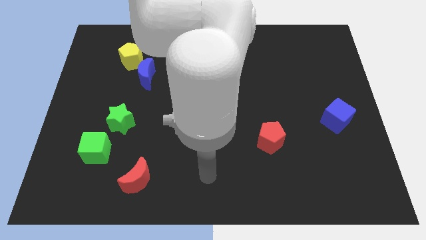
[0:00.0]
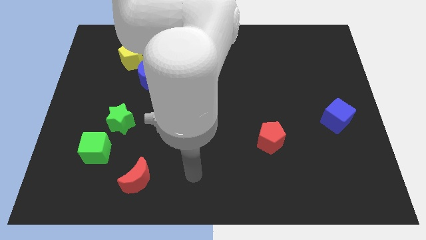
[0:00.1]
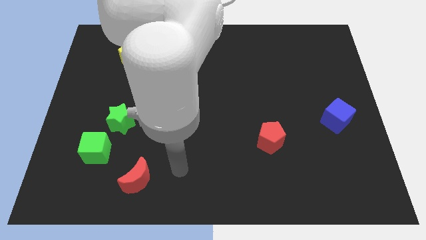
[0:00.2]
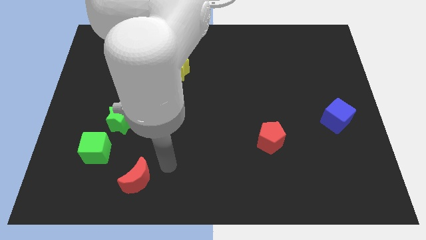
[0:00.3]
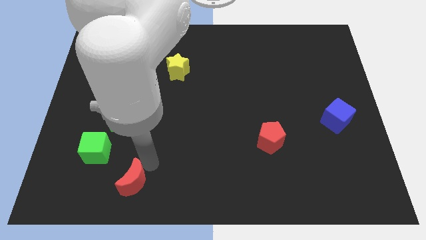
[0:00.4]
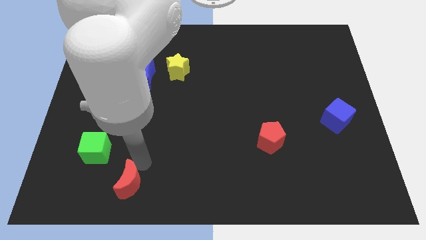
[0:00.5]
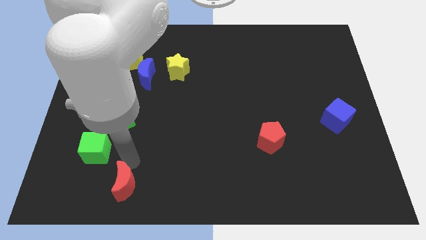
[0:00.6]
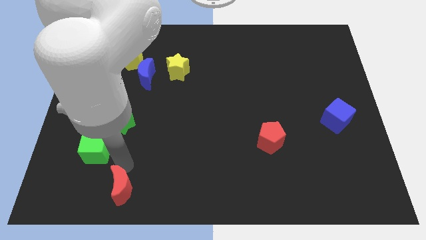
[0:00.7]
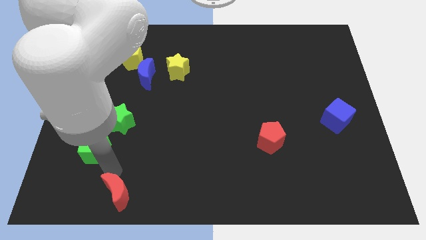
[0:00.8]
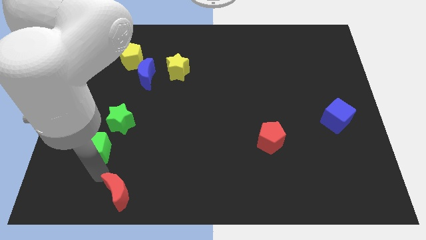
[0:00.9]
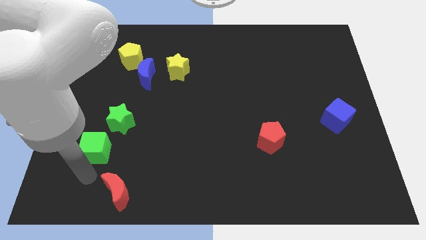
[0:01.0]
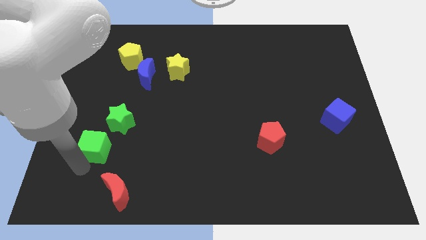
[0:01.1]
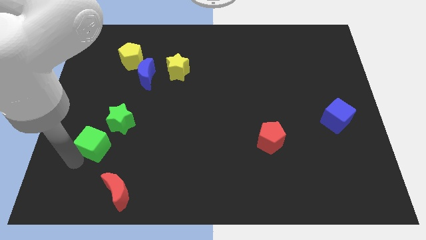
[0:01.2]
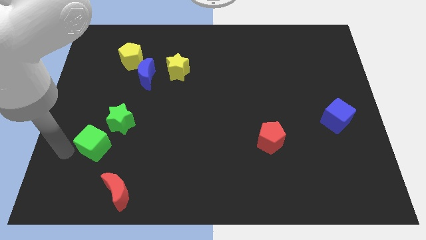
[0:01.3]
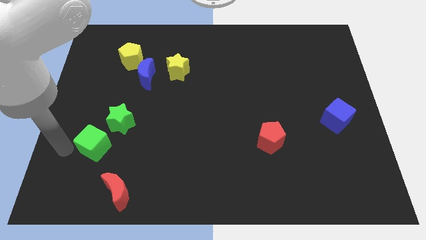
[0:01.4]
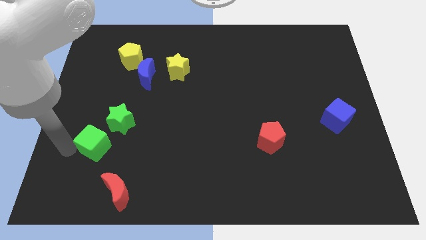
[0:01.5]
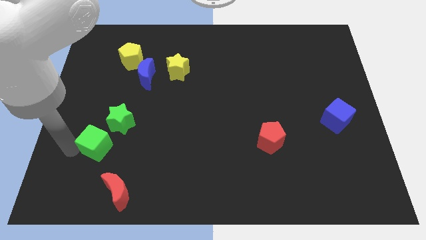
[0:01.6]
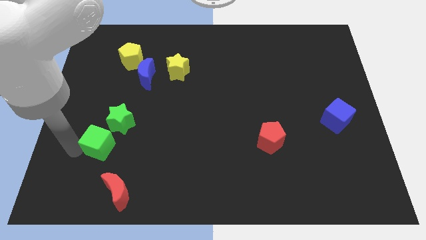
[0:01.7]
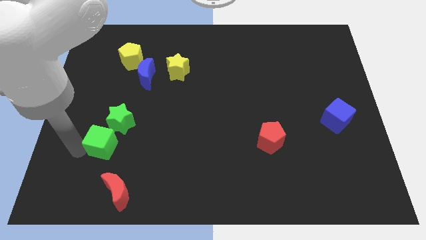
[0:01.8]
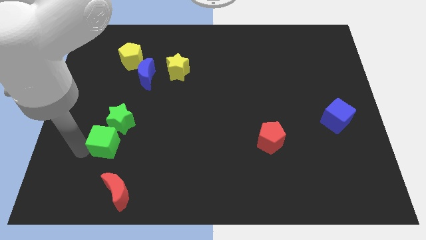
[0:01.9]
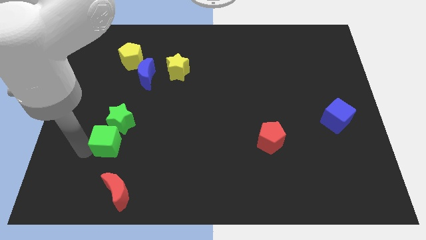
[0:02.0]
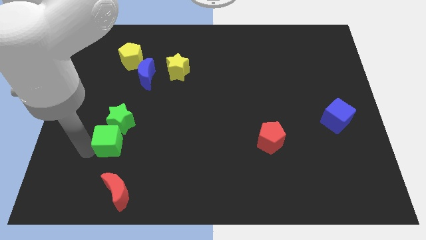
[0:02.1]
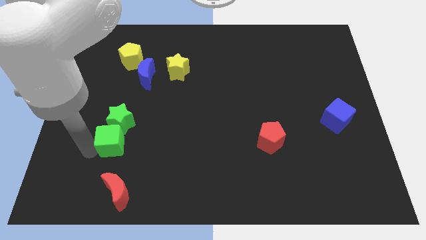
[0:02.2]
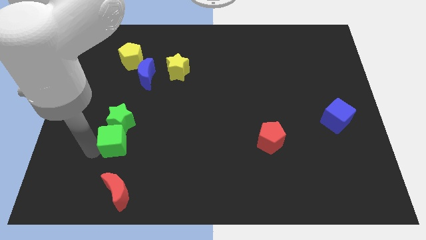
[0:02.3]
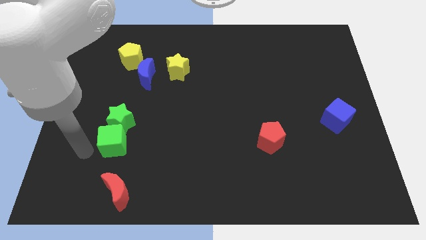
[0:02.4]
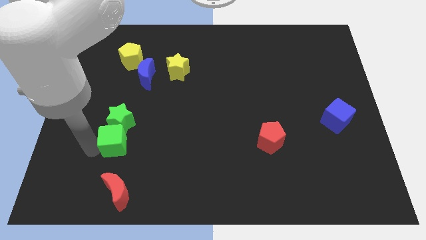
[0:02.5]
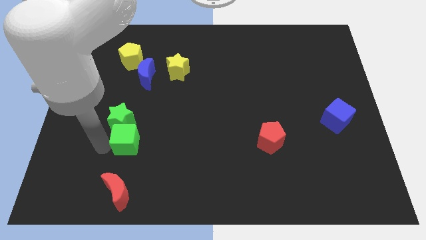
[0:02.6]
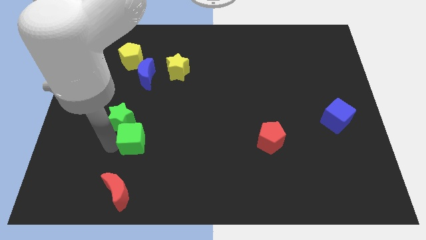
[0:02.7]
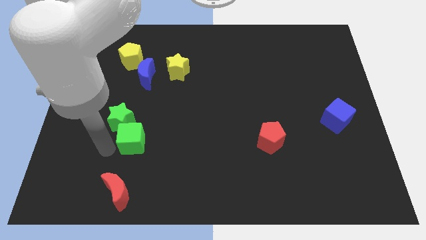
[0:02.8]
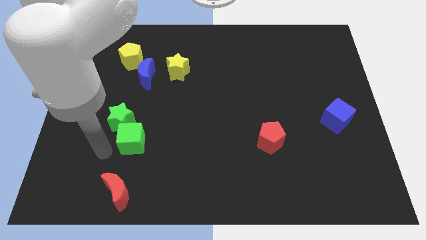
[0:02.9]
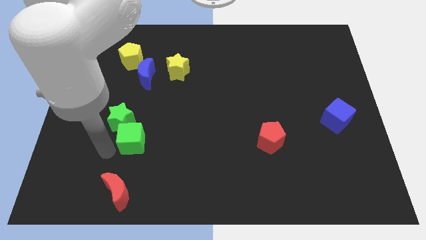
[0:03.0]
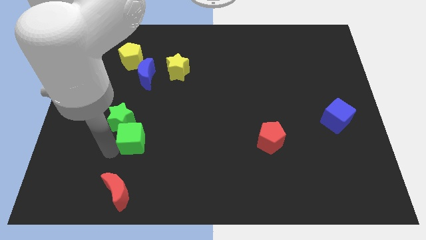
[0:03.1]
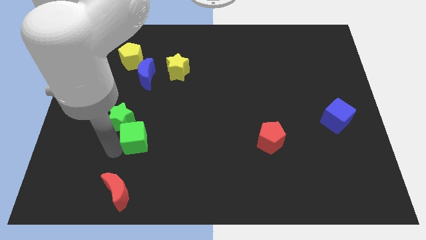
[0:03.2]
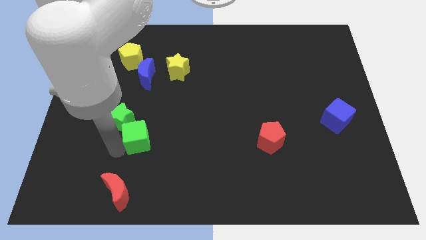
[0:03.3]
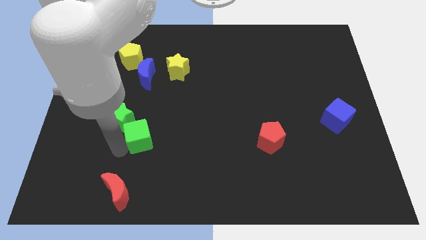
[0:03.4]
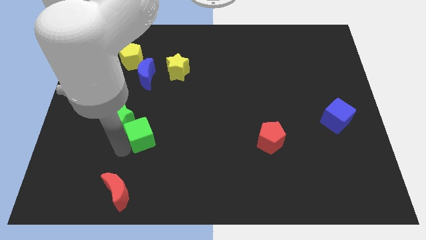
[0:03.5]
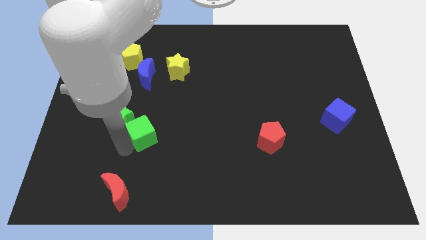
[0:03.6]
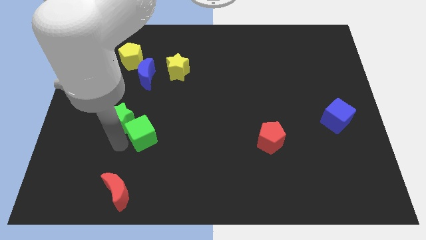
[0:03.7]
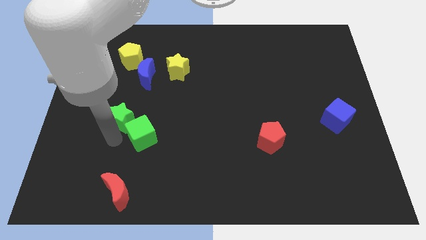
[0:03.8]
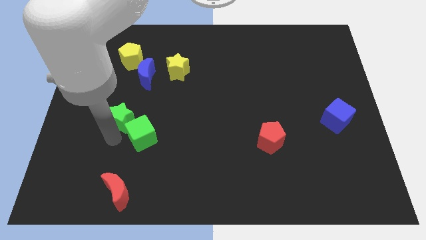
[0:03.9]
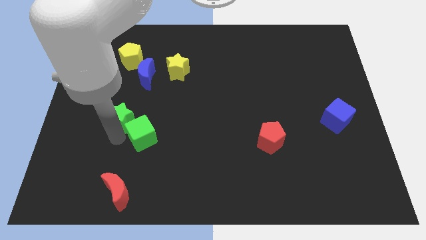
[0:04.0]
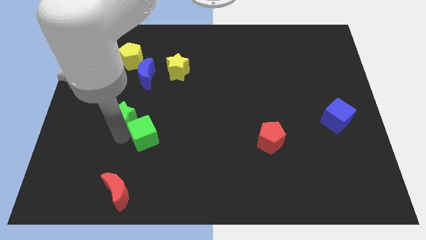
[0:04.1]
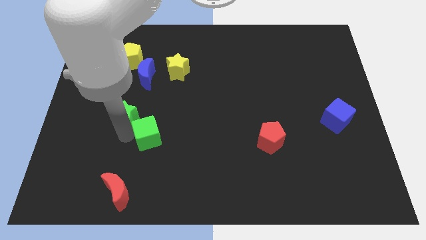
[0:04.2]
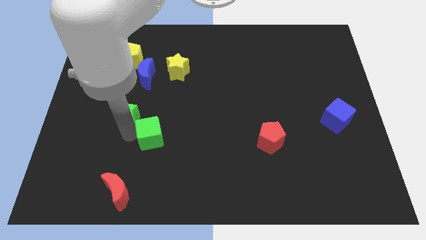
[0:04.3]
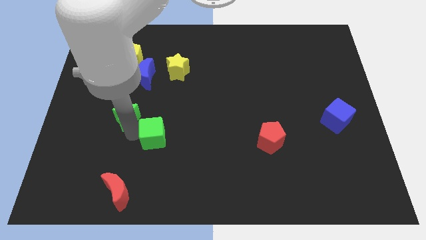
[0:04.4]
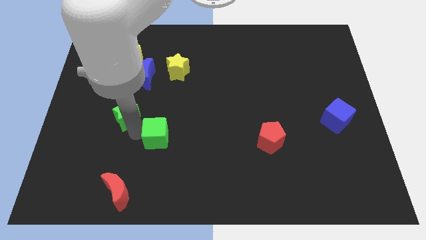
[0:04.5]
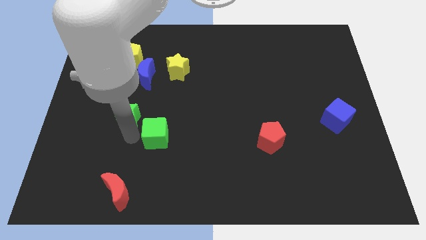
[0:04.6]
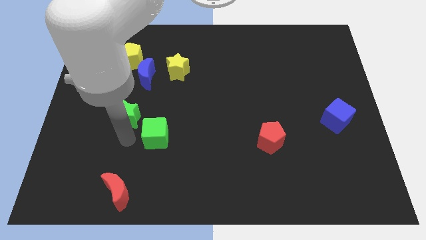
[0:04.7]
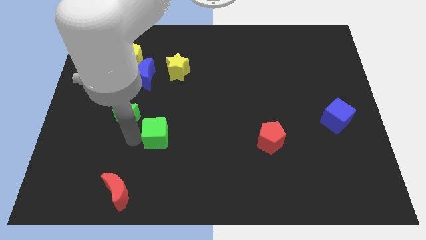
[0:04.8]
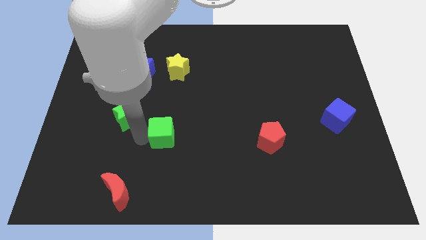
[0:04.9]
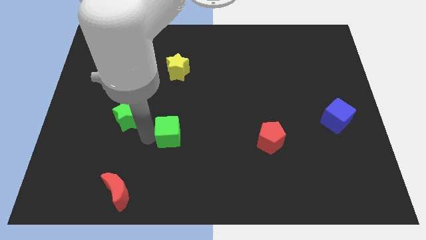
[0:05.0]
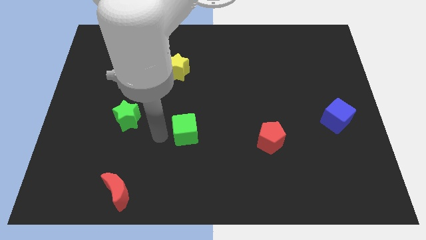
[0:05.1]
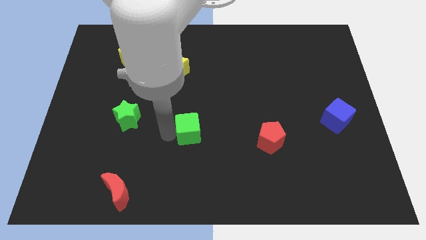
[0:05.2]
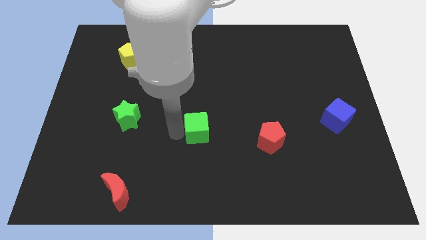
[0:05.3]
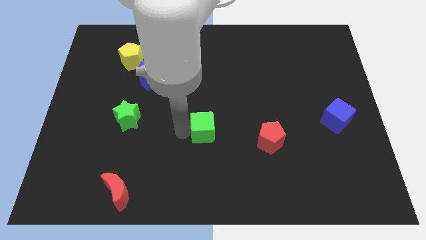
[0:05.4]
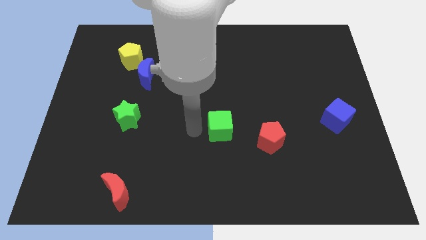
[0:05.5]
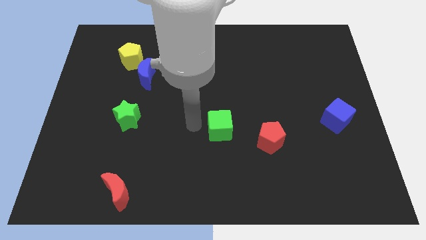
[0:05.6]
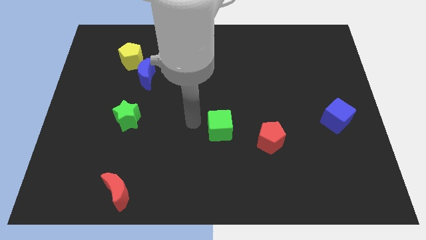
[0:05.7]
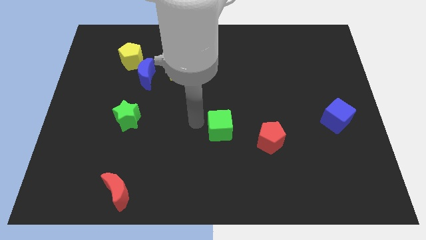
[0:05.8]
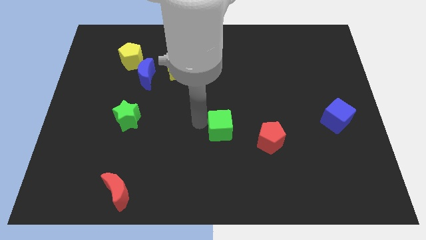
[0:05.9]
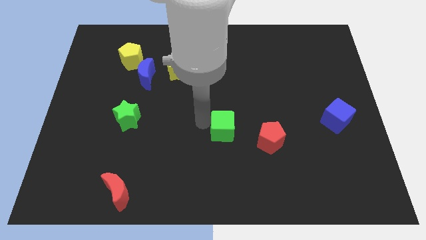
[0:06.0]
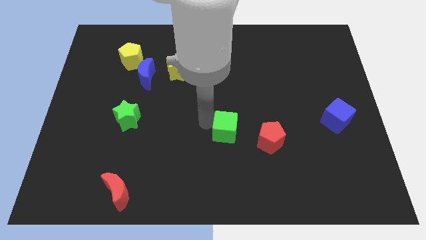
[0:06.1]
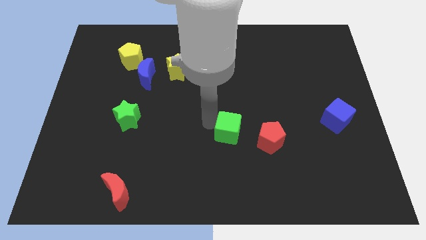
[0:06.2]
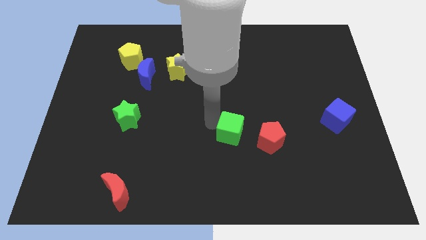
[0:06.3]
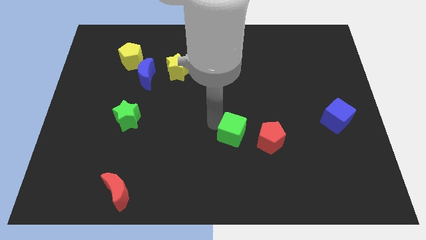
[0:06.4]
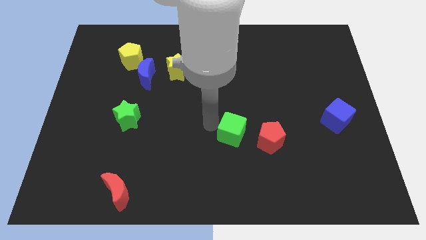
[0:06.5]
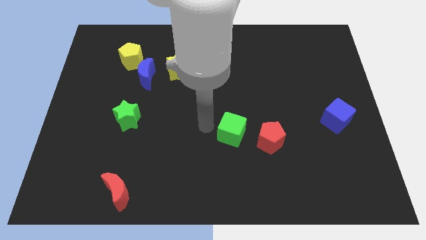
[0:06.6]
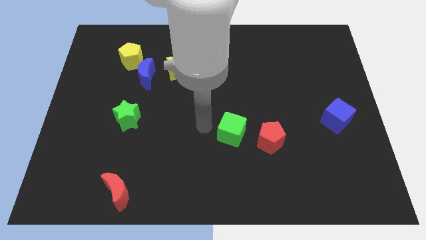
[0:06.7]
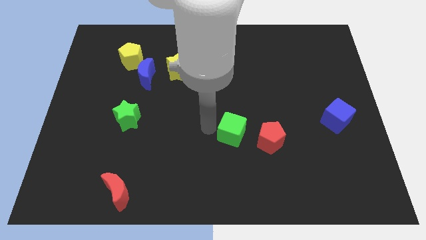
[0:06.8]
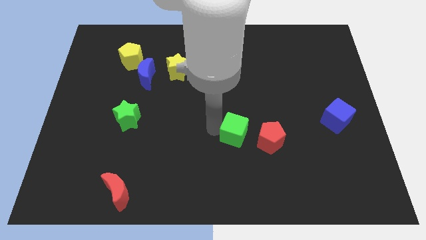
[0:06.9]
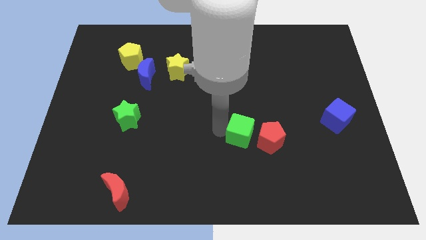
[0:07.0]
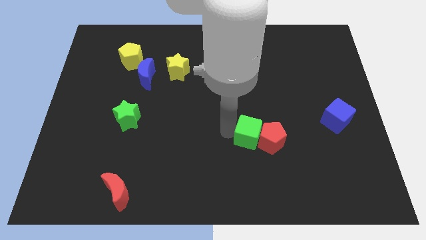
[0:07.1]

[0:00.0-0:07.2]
move the green cube close to the red pentagon
